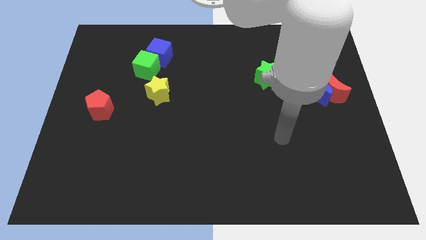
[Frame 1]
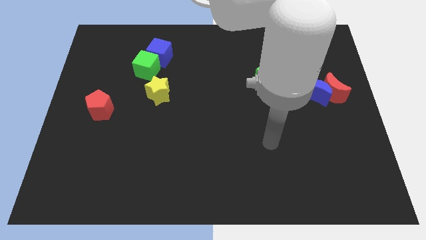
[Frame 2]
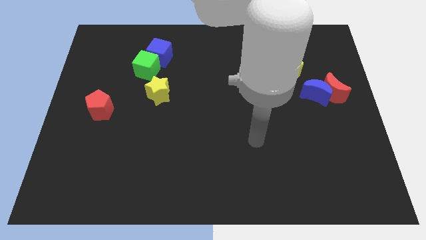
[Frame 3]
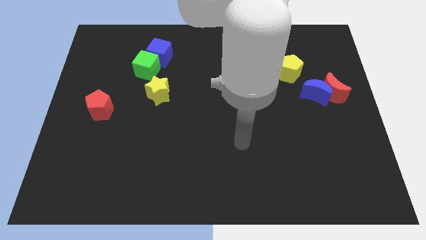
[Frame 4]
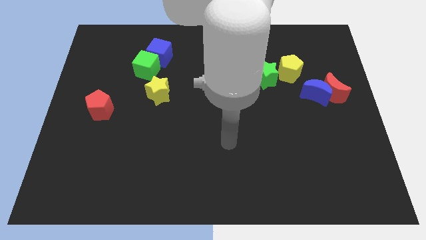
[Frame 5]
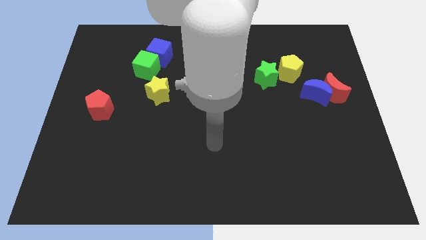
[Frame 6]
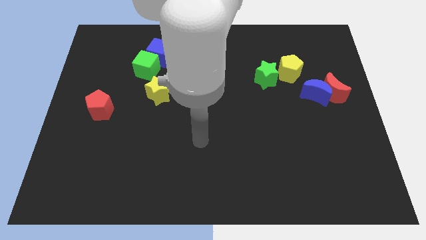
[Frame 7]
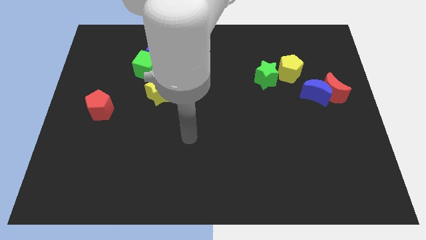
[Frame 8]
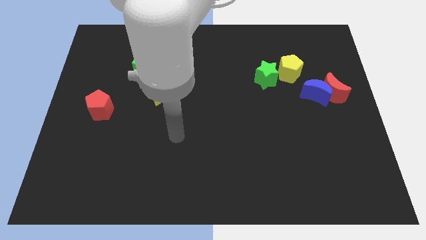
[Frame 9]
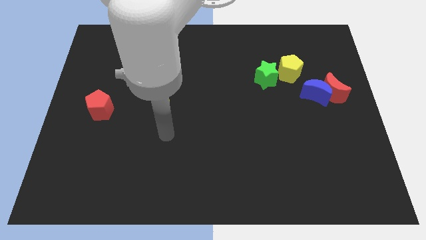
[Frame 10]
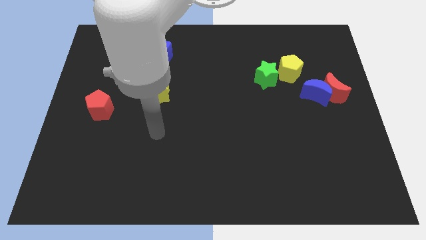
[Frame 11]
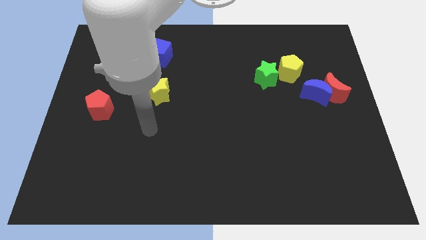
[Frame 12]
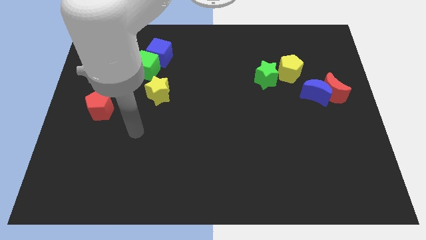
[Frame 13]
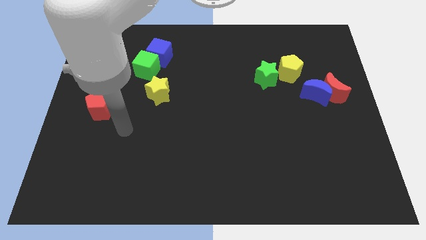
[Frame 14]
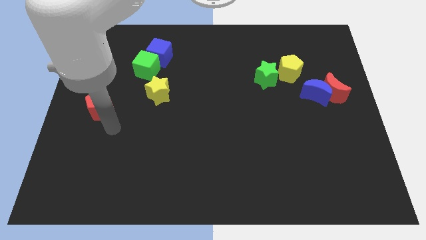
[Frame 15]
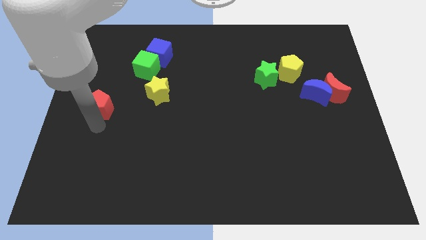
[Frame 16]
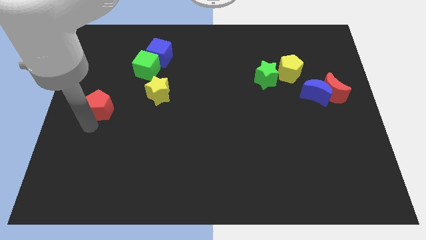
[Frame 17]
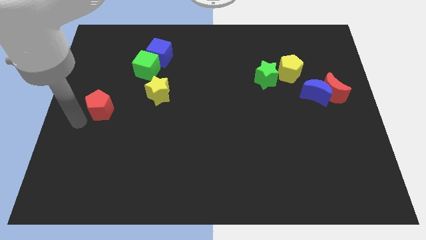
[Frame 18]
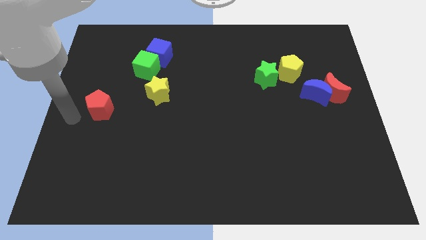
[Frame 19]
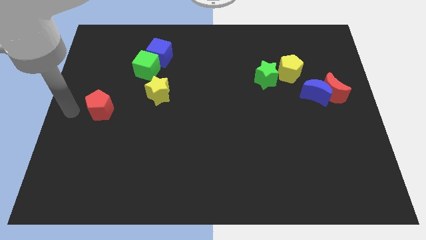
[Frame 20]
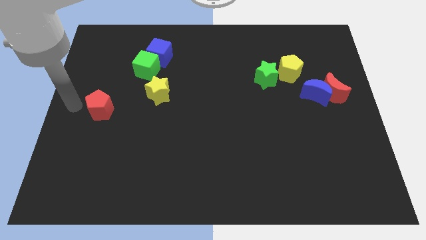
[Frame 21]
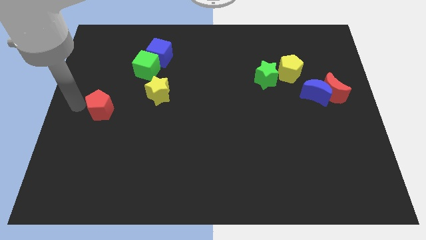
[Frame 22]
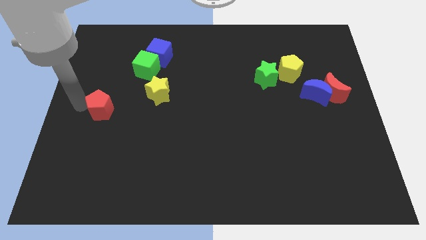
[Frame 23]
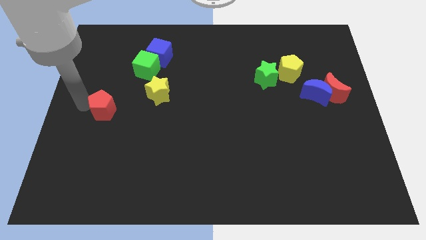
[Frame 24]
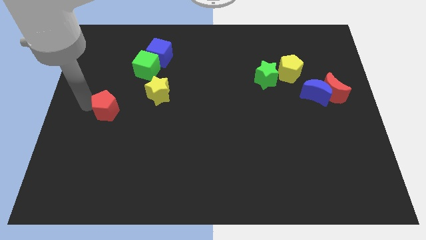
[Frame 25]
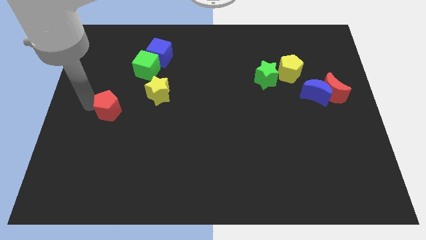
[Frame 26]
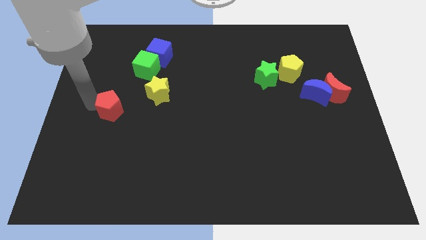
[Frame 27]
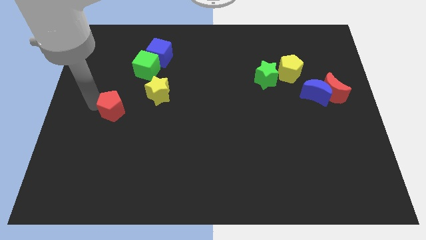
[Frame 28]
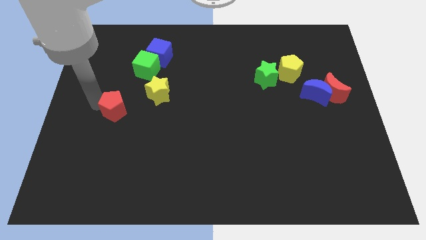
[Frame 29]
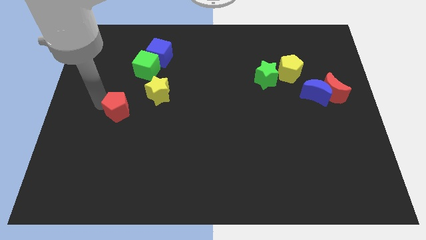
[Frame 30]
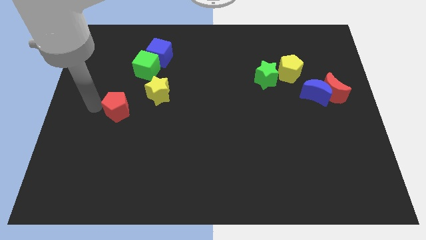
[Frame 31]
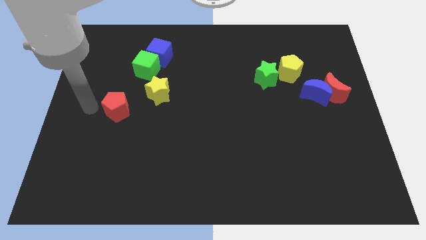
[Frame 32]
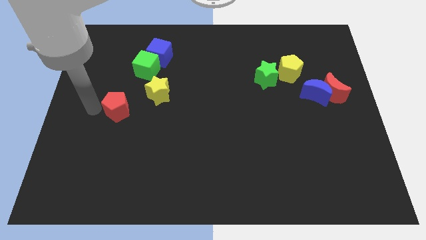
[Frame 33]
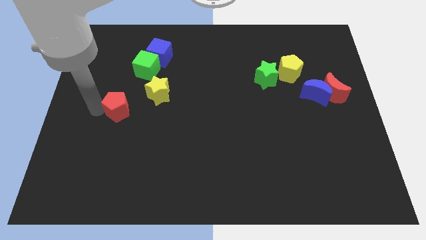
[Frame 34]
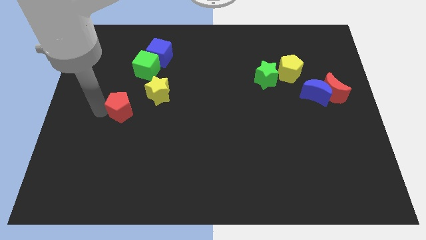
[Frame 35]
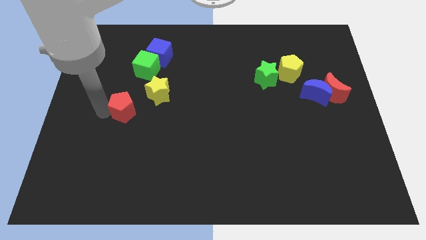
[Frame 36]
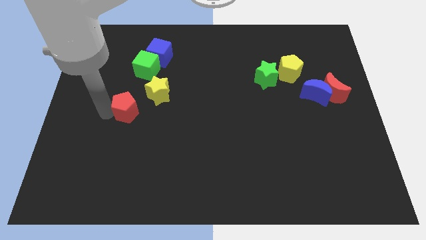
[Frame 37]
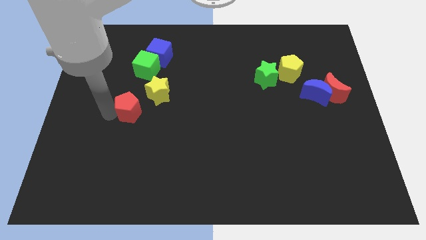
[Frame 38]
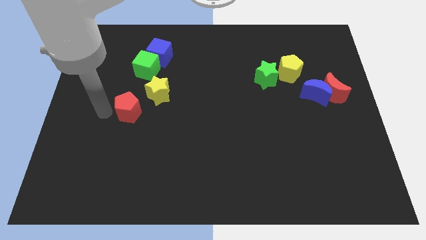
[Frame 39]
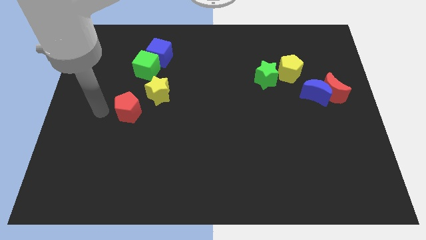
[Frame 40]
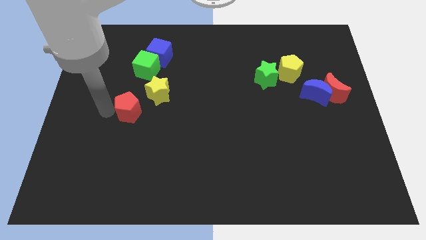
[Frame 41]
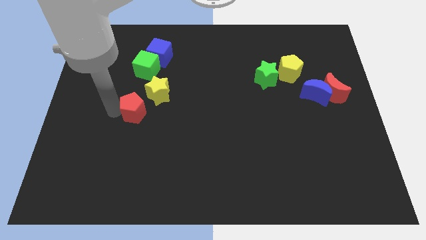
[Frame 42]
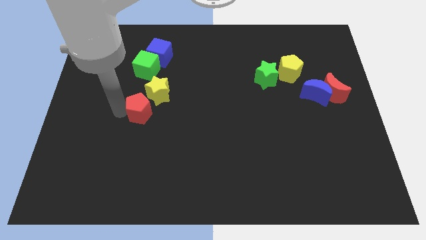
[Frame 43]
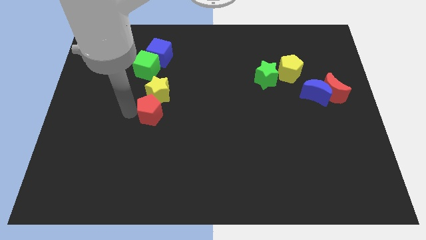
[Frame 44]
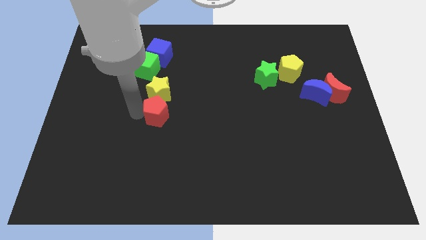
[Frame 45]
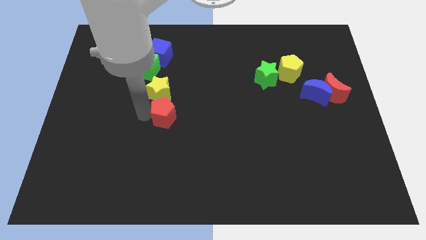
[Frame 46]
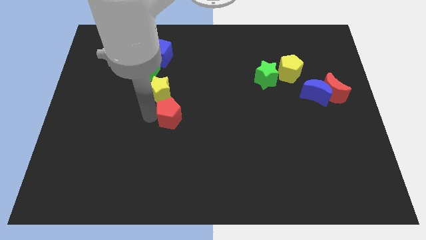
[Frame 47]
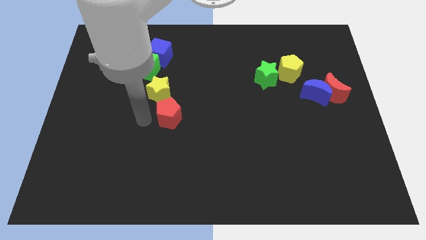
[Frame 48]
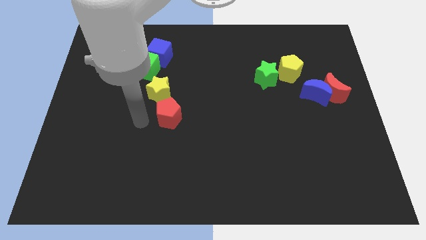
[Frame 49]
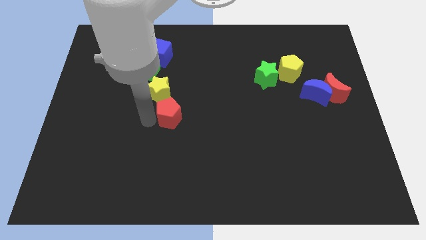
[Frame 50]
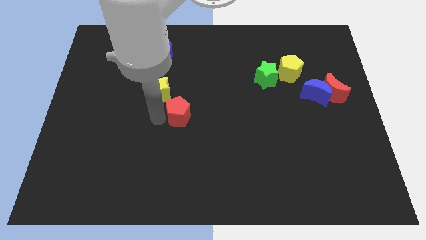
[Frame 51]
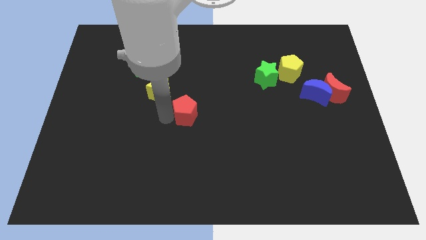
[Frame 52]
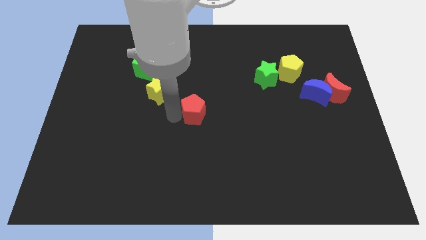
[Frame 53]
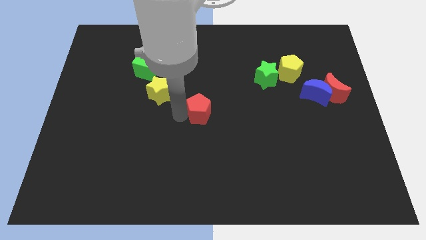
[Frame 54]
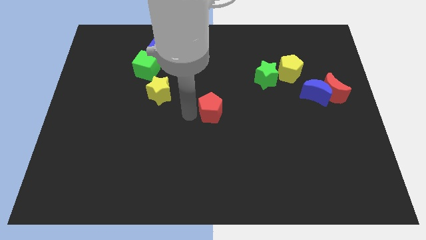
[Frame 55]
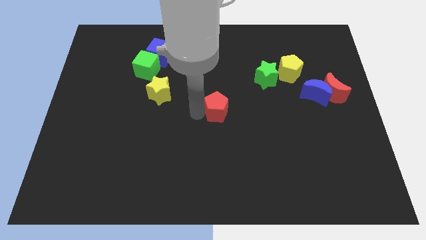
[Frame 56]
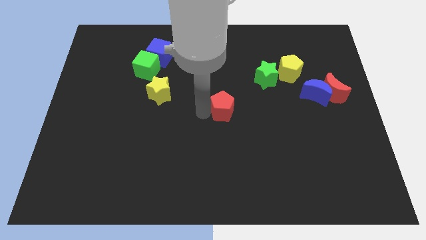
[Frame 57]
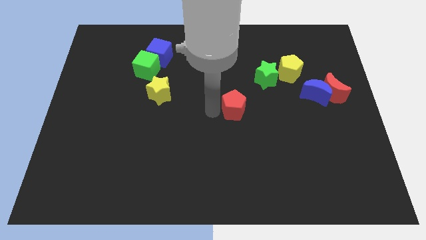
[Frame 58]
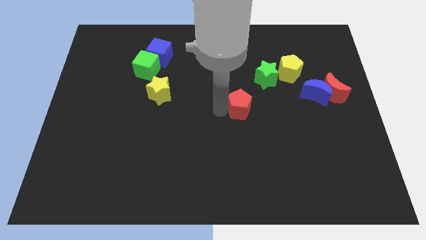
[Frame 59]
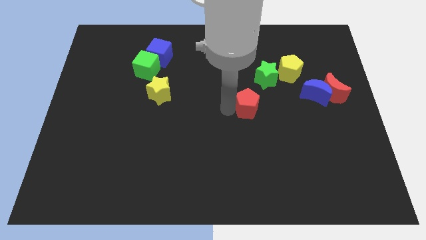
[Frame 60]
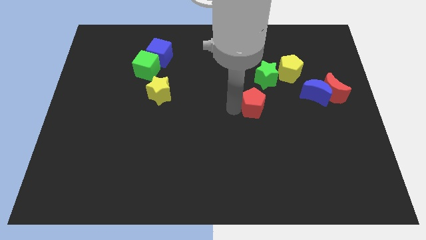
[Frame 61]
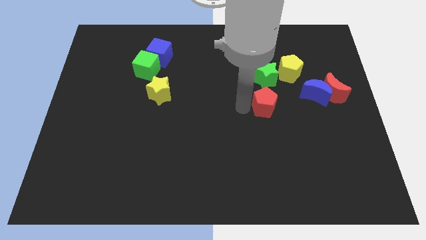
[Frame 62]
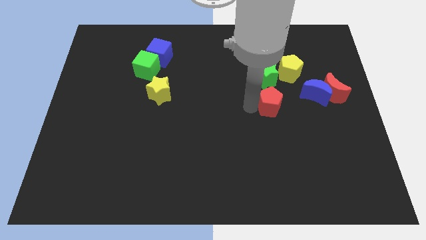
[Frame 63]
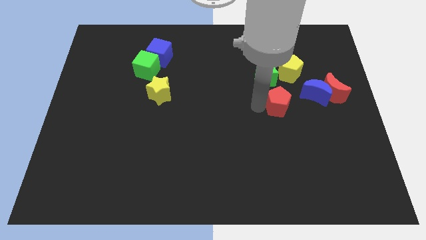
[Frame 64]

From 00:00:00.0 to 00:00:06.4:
put the red pentagon below the yellow pentagon

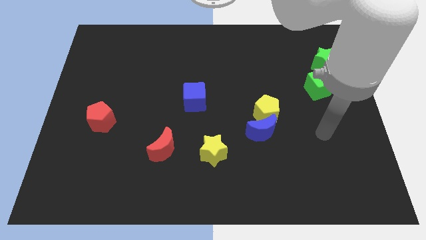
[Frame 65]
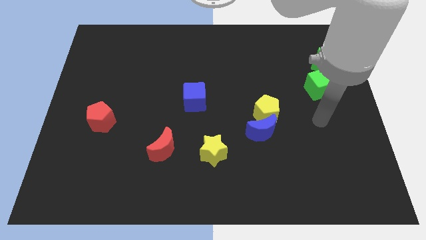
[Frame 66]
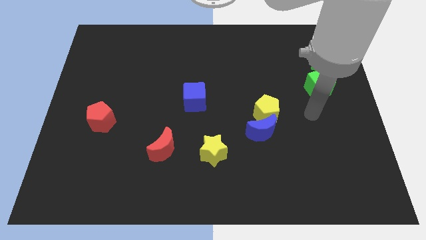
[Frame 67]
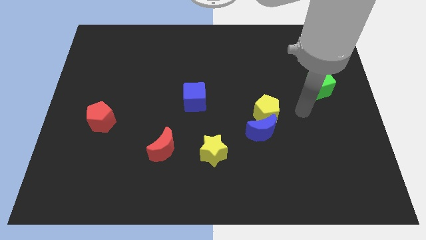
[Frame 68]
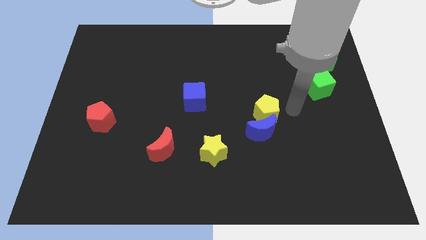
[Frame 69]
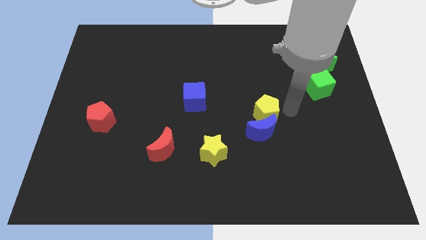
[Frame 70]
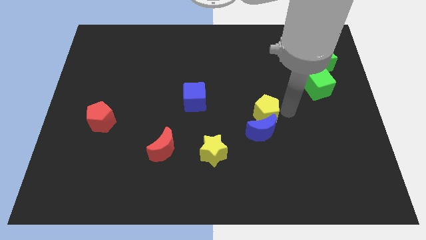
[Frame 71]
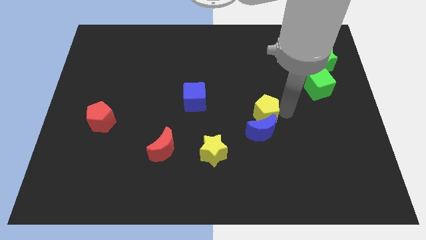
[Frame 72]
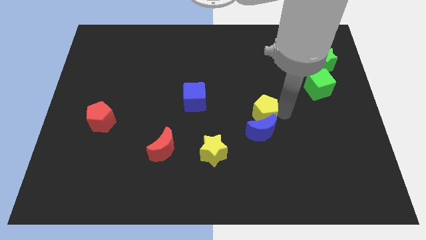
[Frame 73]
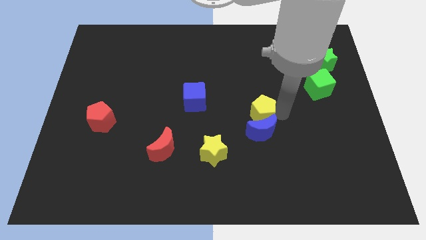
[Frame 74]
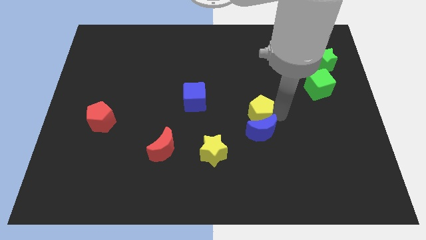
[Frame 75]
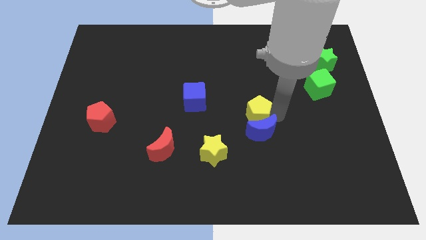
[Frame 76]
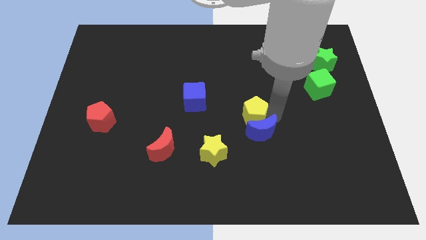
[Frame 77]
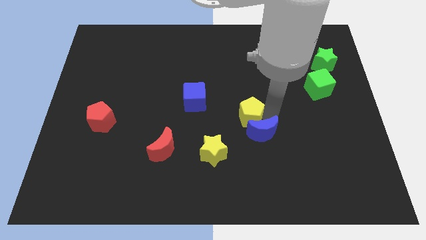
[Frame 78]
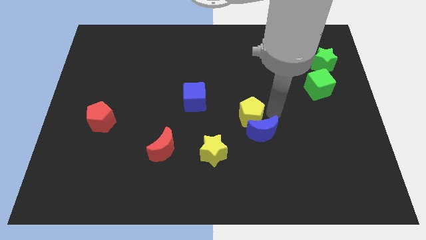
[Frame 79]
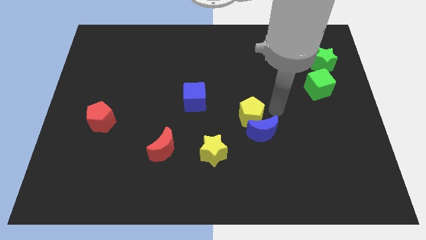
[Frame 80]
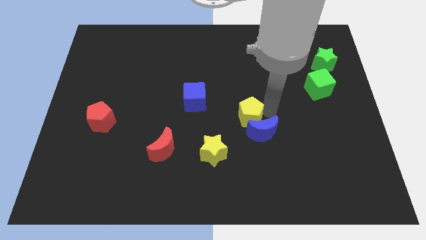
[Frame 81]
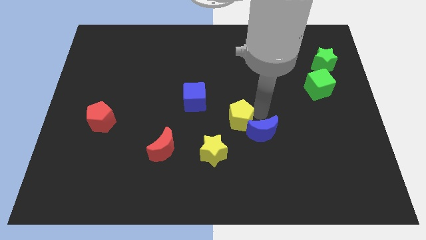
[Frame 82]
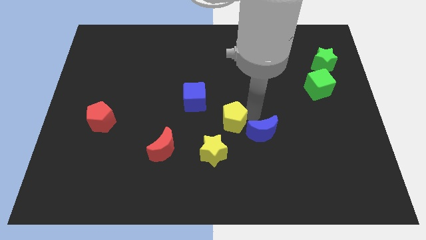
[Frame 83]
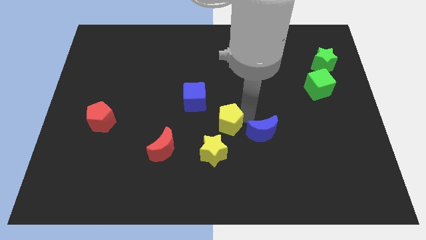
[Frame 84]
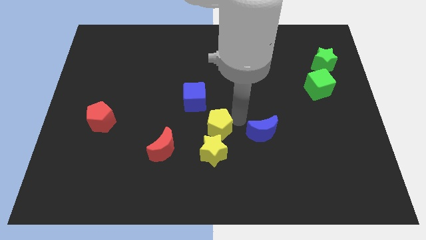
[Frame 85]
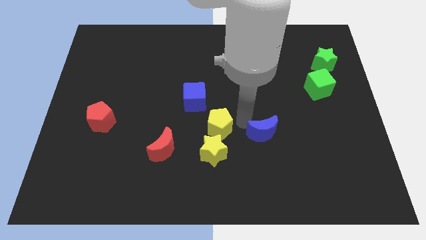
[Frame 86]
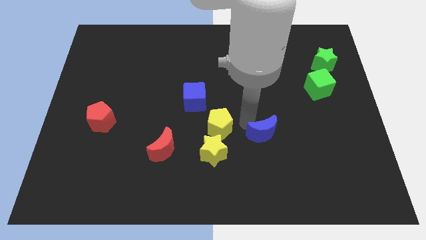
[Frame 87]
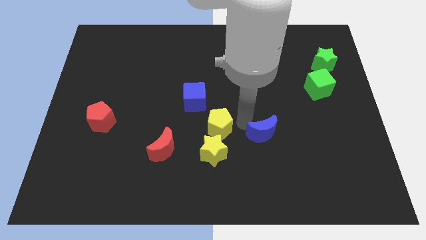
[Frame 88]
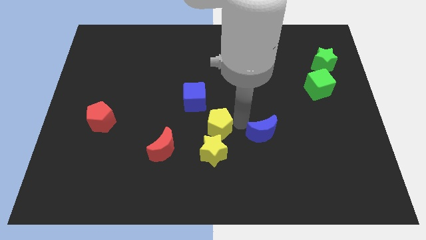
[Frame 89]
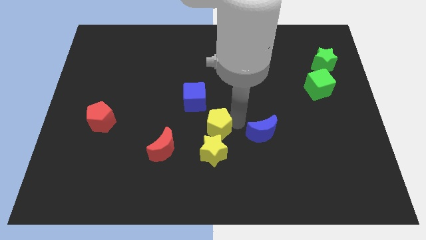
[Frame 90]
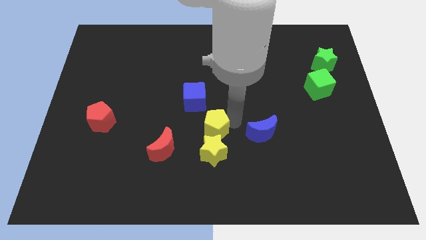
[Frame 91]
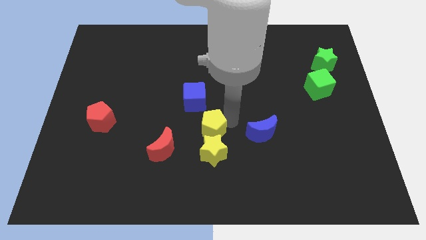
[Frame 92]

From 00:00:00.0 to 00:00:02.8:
push the yellow pentagon to the top right of the red moon
